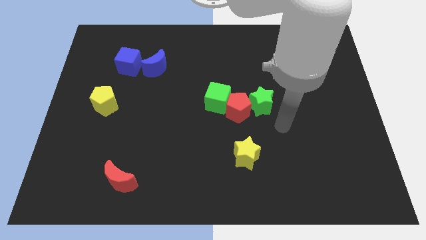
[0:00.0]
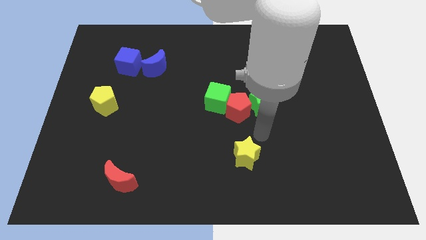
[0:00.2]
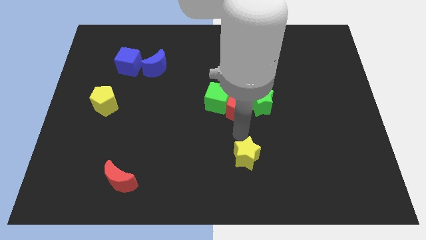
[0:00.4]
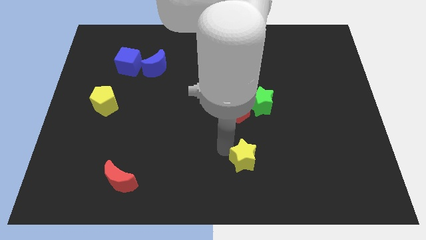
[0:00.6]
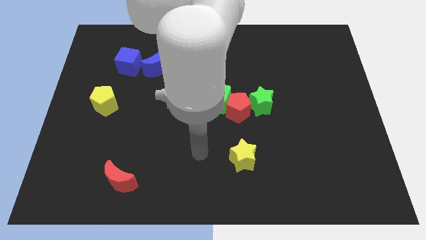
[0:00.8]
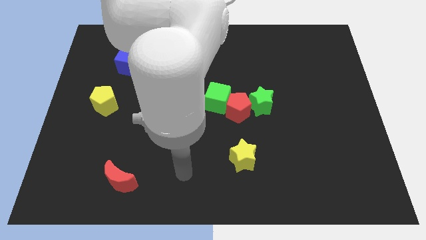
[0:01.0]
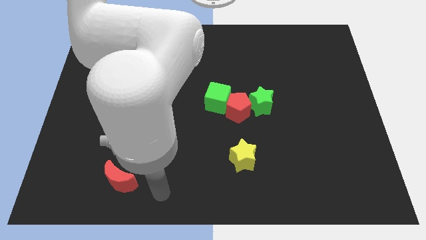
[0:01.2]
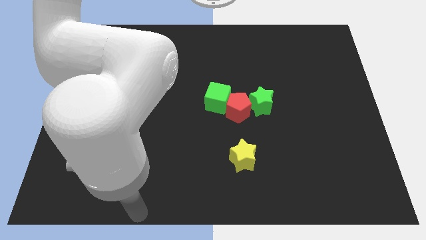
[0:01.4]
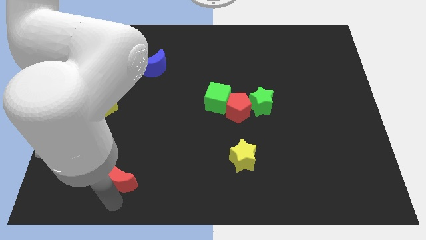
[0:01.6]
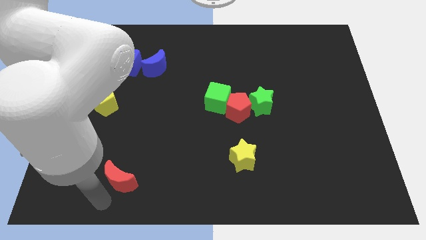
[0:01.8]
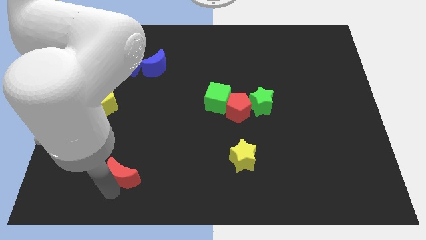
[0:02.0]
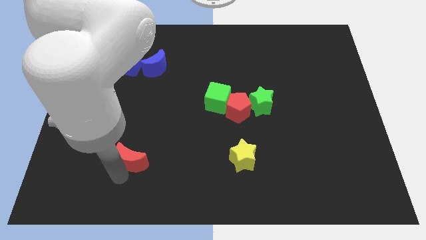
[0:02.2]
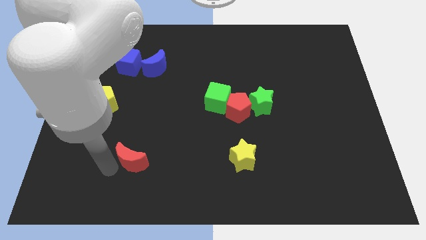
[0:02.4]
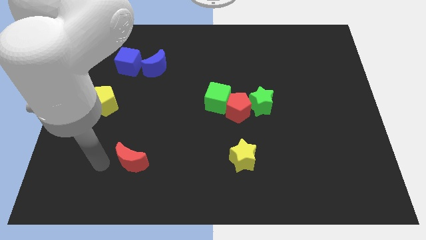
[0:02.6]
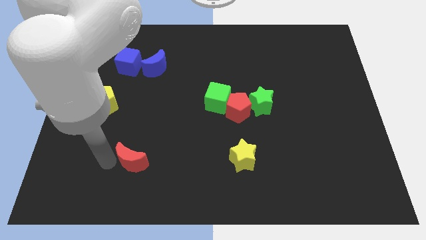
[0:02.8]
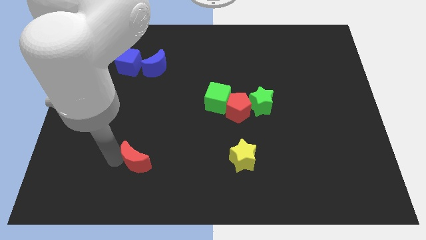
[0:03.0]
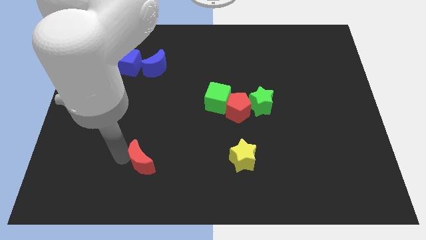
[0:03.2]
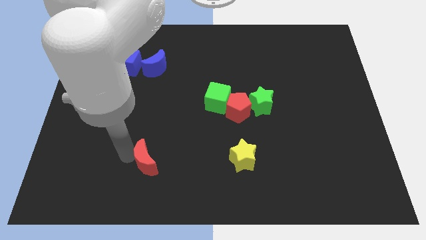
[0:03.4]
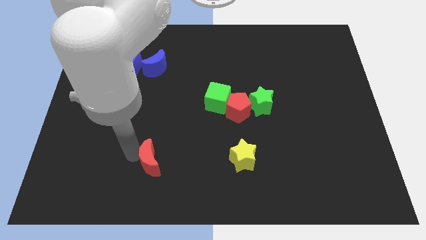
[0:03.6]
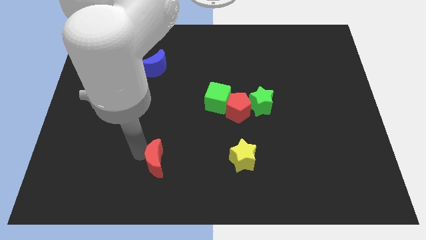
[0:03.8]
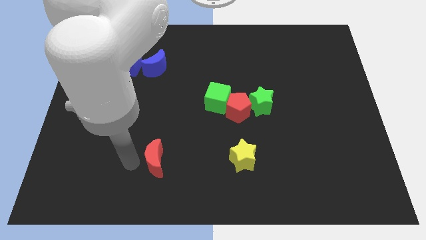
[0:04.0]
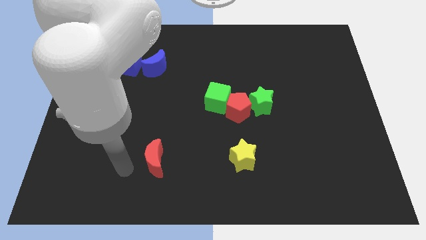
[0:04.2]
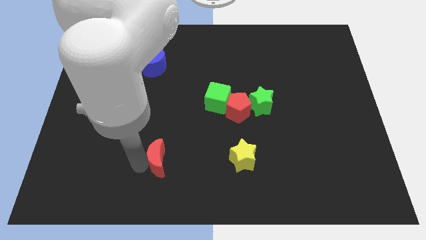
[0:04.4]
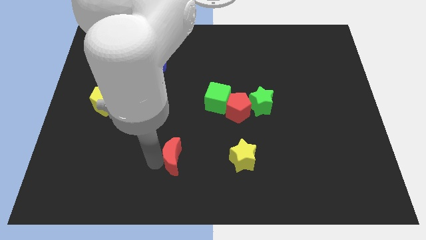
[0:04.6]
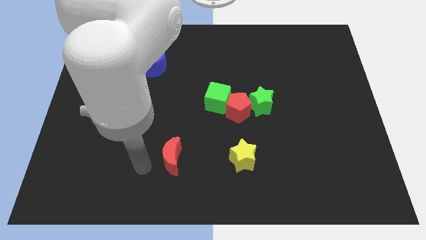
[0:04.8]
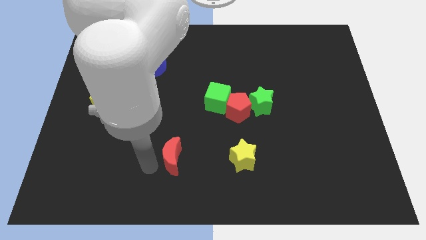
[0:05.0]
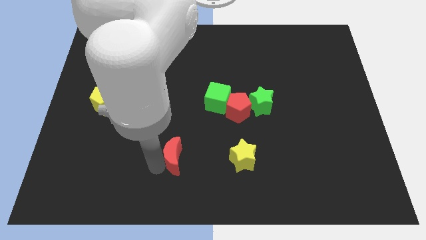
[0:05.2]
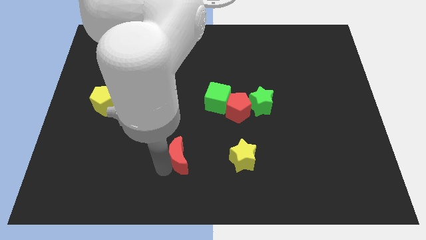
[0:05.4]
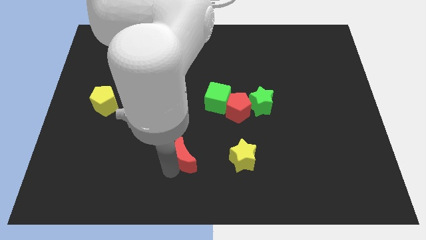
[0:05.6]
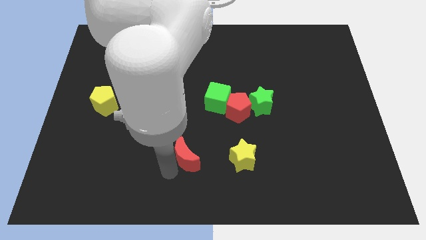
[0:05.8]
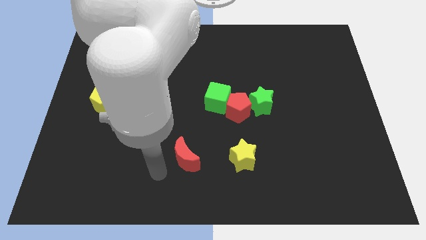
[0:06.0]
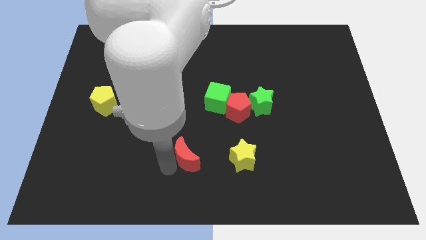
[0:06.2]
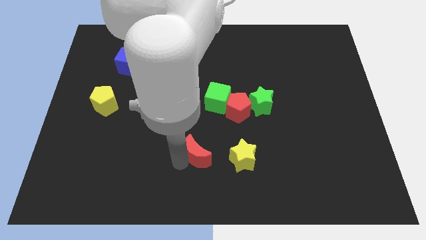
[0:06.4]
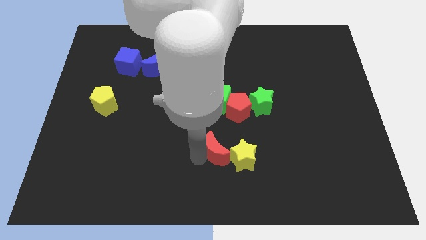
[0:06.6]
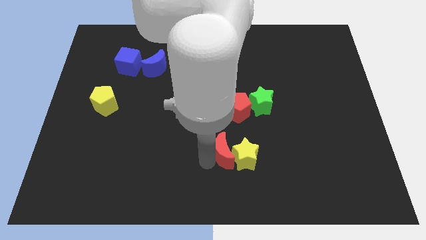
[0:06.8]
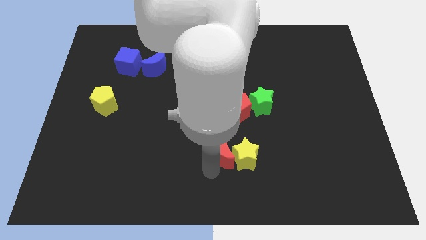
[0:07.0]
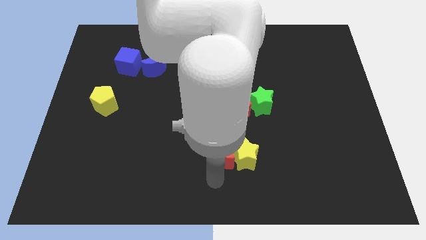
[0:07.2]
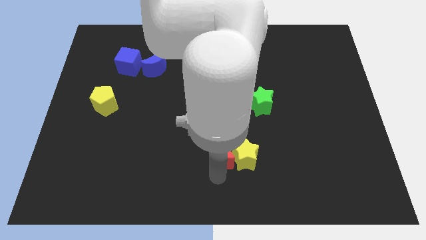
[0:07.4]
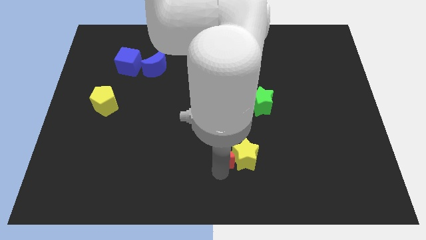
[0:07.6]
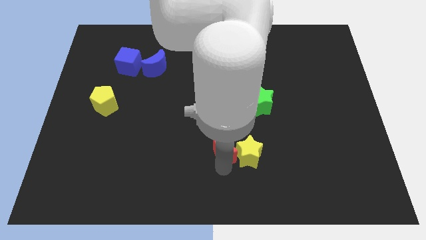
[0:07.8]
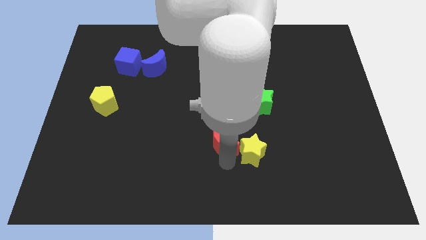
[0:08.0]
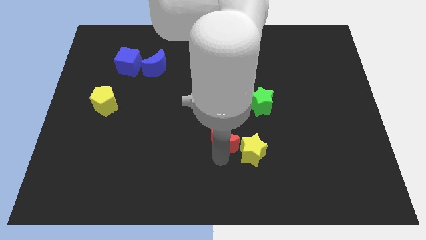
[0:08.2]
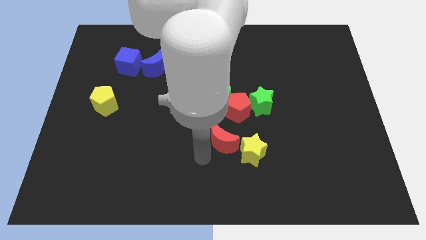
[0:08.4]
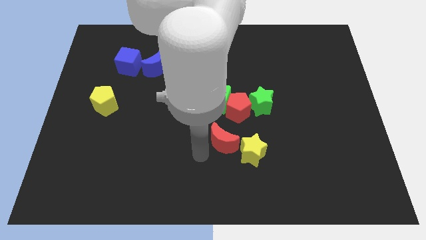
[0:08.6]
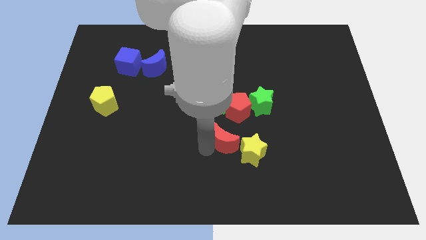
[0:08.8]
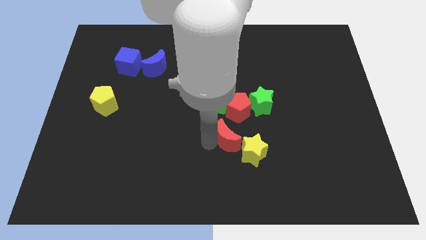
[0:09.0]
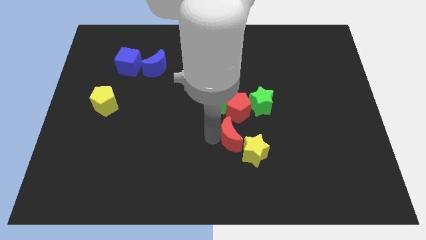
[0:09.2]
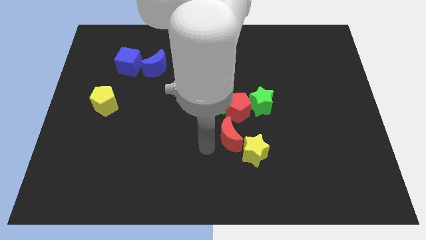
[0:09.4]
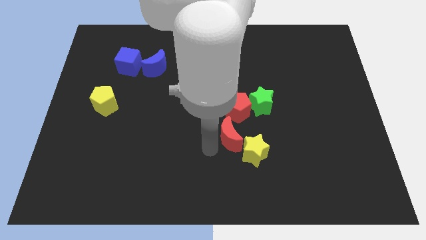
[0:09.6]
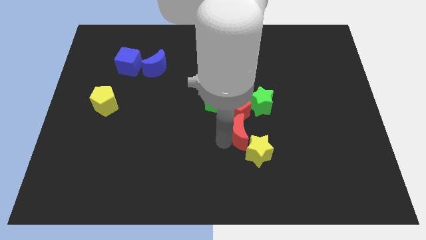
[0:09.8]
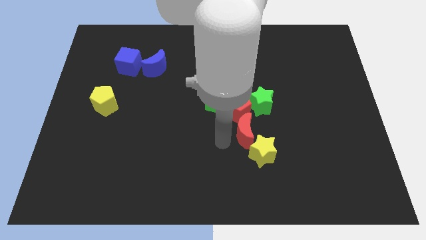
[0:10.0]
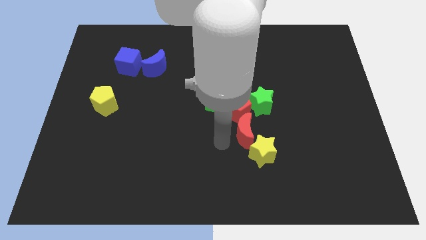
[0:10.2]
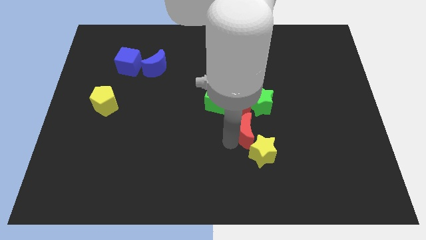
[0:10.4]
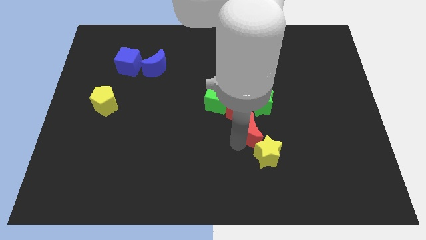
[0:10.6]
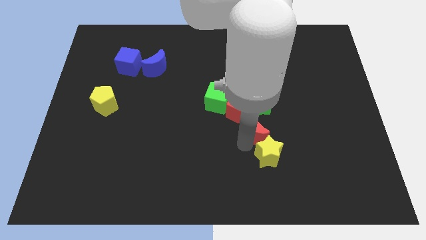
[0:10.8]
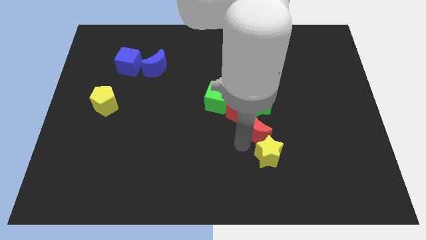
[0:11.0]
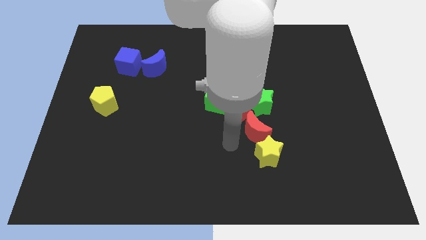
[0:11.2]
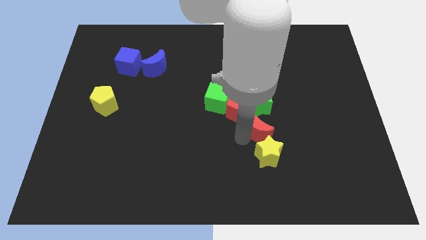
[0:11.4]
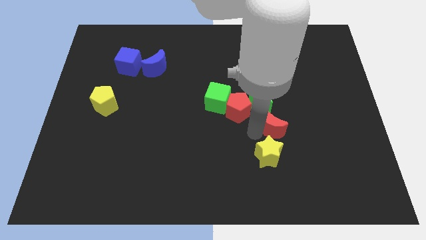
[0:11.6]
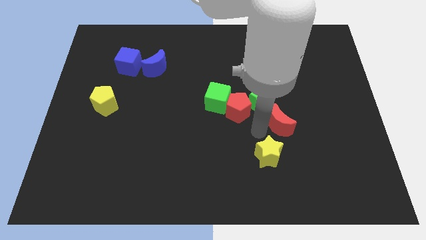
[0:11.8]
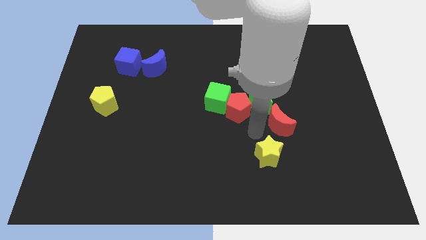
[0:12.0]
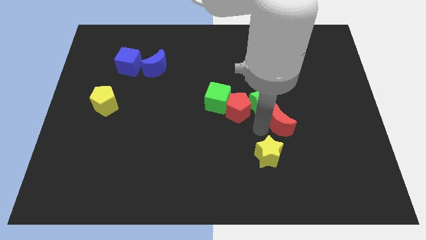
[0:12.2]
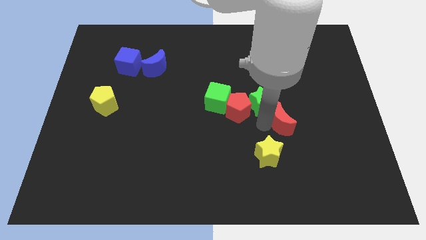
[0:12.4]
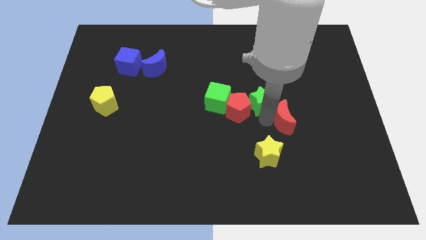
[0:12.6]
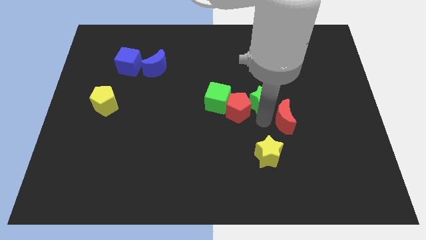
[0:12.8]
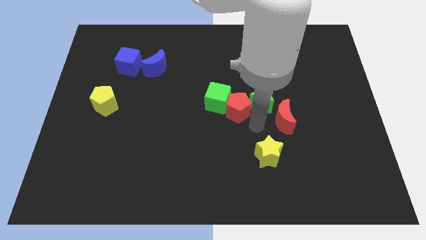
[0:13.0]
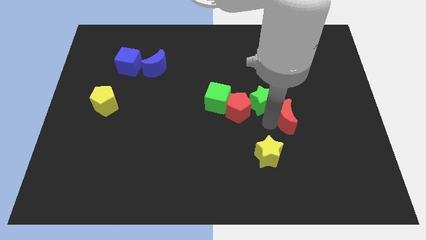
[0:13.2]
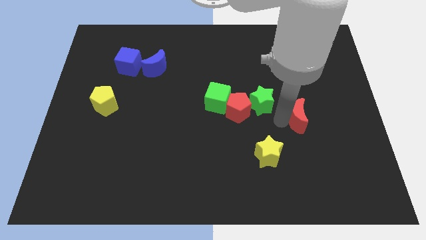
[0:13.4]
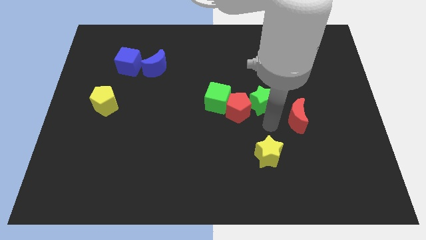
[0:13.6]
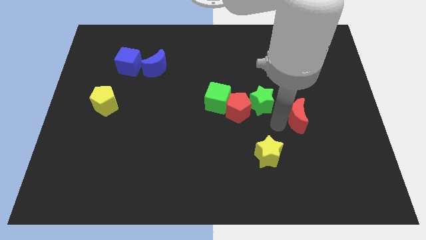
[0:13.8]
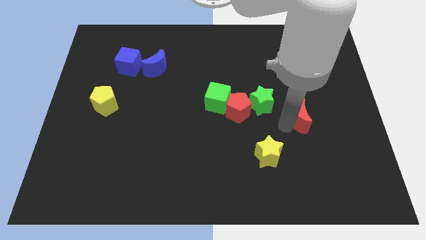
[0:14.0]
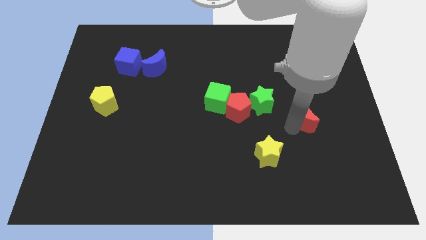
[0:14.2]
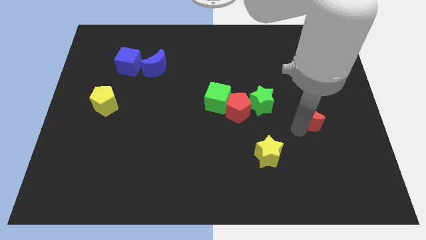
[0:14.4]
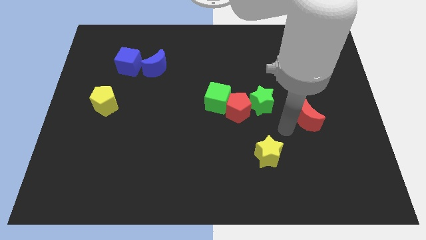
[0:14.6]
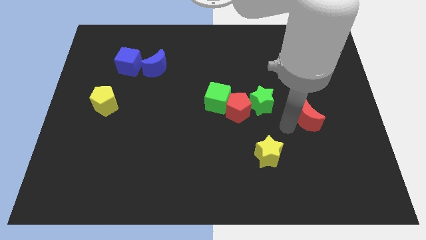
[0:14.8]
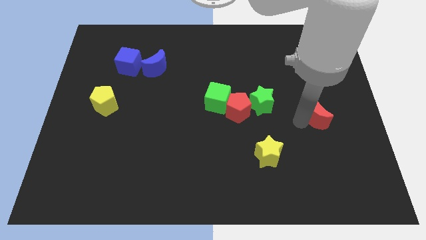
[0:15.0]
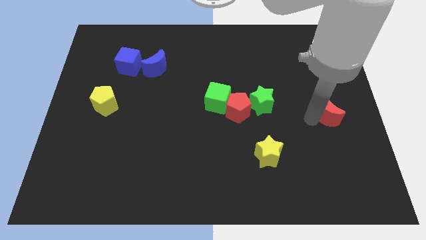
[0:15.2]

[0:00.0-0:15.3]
slide the red moon to the right side
